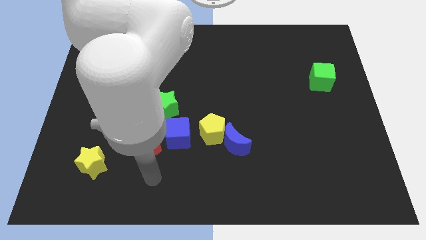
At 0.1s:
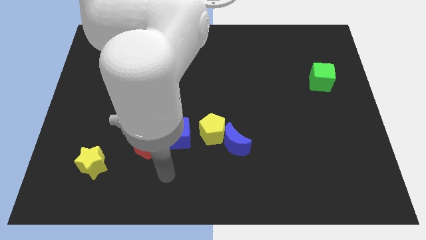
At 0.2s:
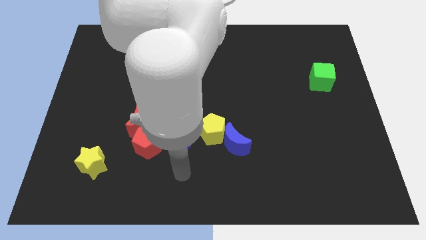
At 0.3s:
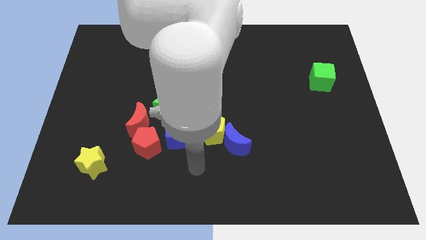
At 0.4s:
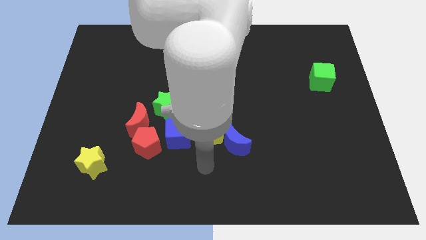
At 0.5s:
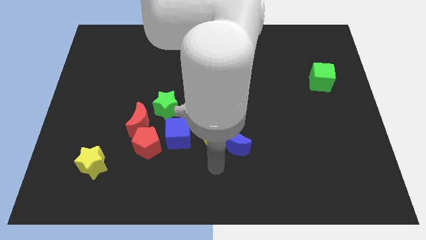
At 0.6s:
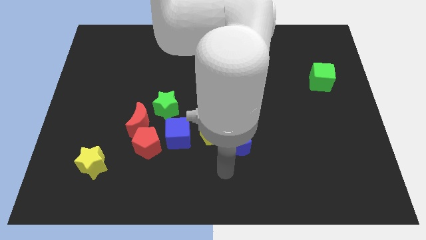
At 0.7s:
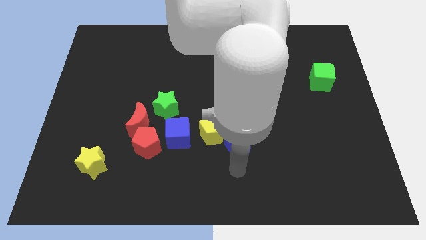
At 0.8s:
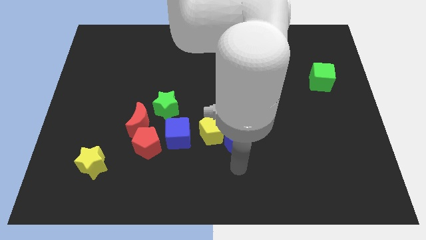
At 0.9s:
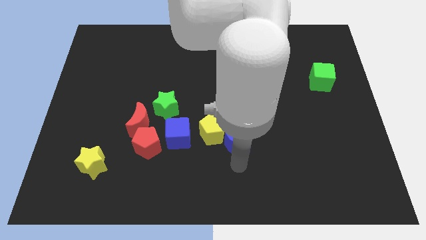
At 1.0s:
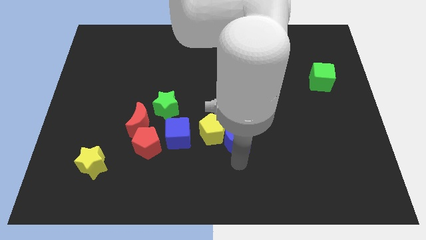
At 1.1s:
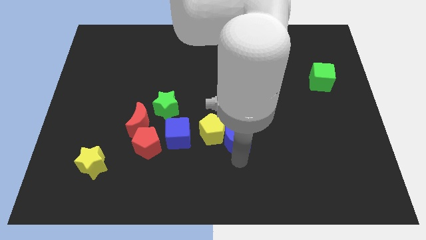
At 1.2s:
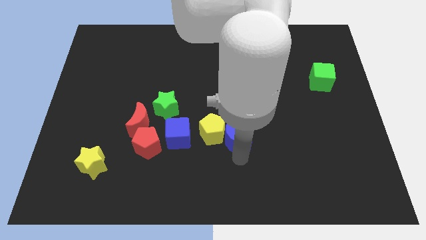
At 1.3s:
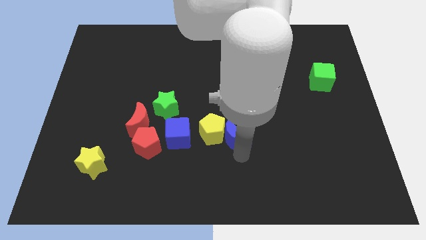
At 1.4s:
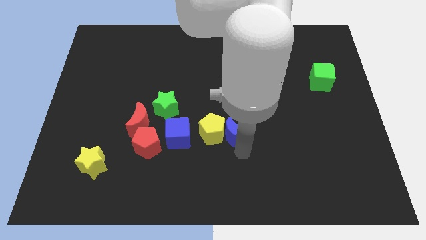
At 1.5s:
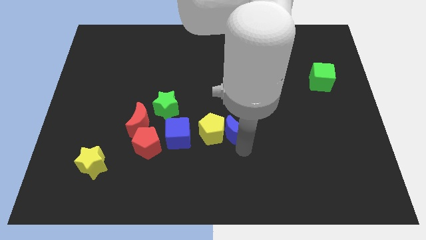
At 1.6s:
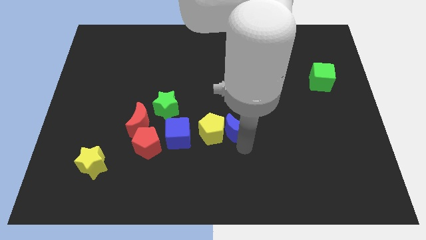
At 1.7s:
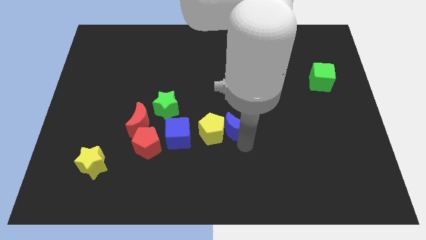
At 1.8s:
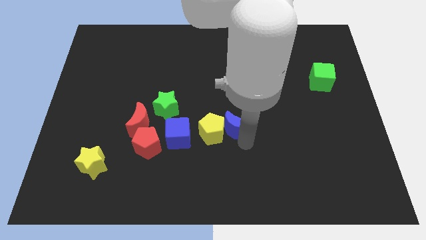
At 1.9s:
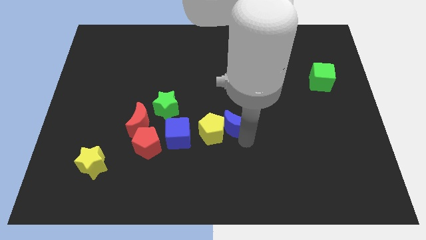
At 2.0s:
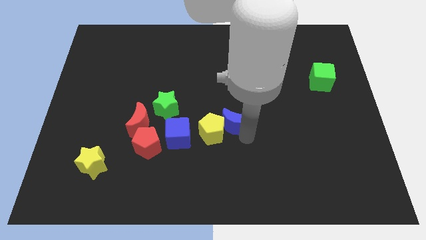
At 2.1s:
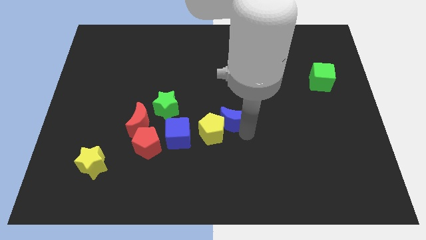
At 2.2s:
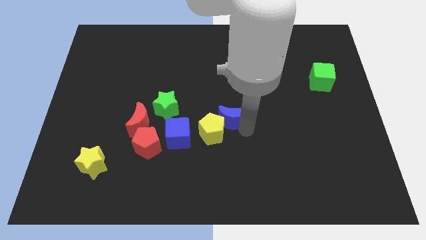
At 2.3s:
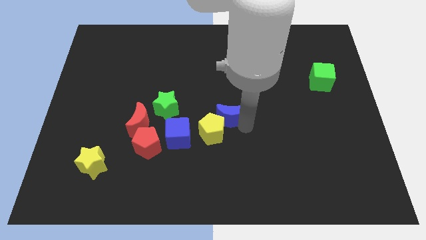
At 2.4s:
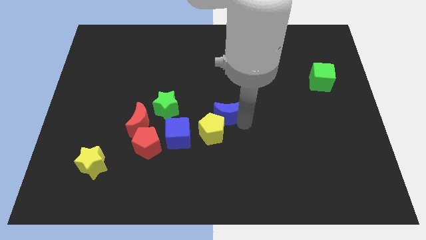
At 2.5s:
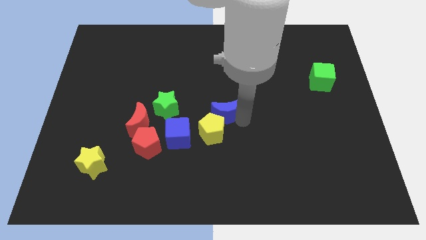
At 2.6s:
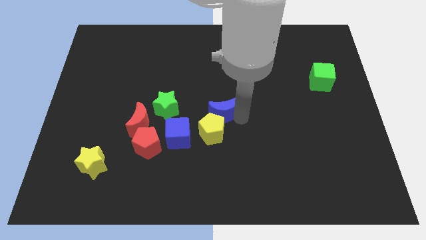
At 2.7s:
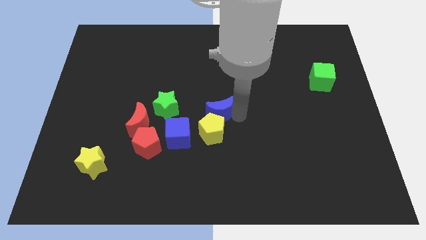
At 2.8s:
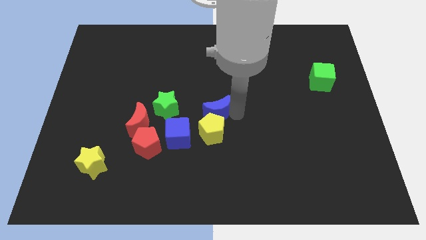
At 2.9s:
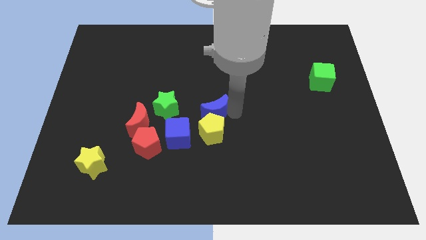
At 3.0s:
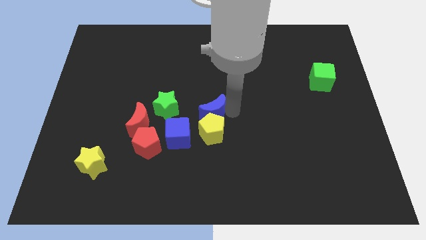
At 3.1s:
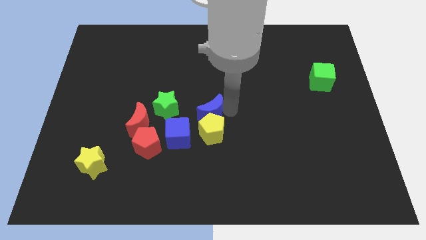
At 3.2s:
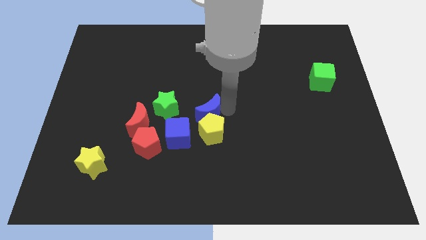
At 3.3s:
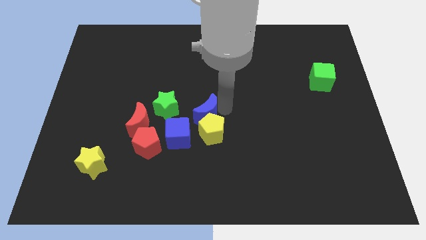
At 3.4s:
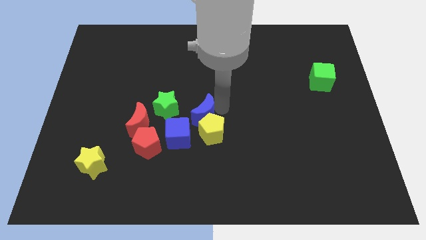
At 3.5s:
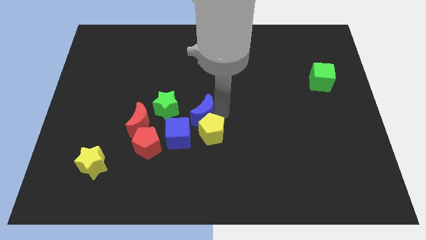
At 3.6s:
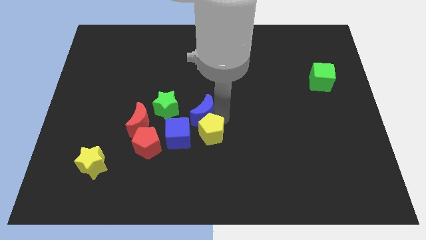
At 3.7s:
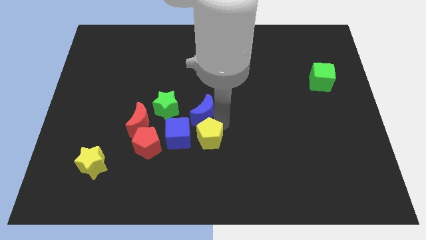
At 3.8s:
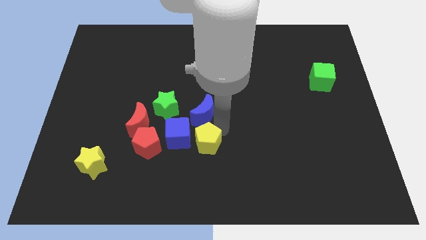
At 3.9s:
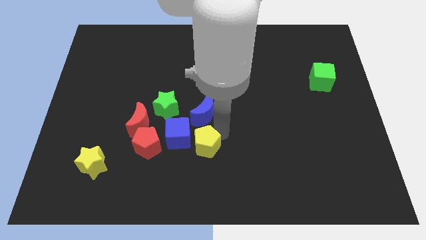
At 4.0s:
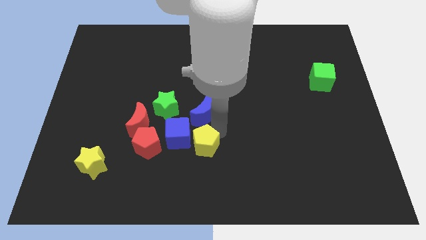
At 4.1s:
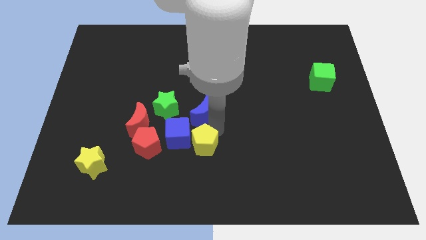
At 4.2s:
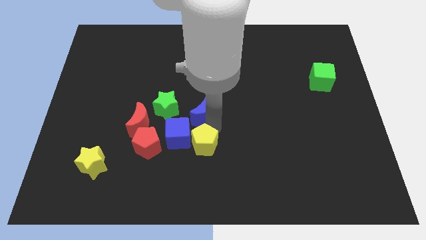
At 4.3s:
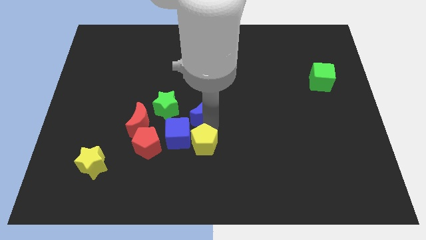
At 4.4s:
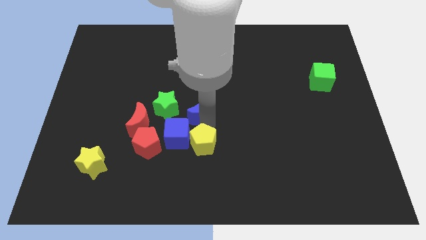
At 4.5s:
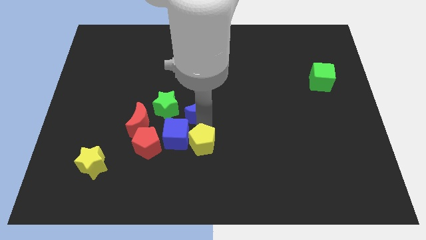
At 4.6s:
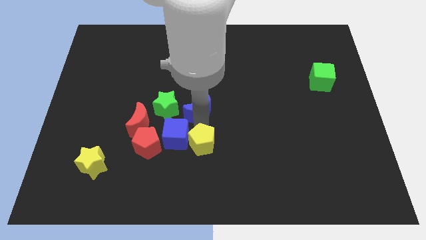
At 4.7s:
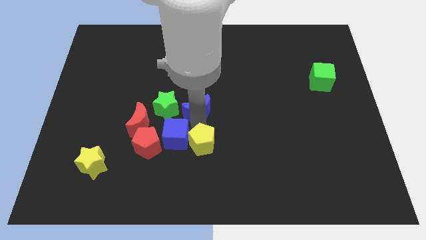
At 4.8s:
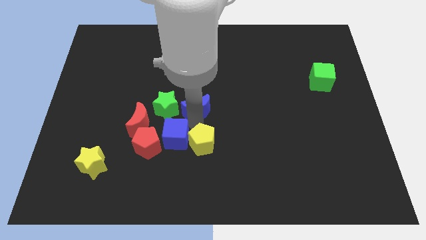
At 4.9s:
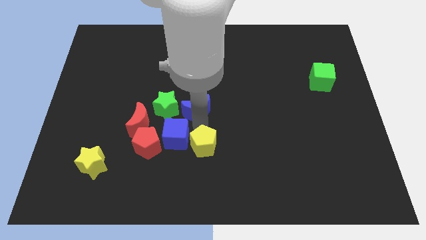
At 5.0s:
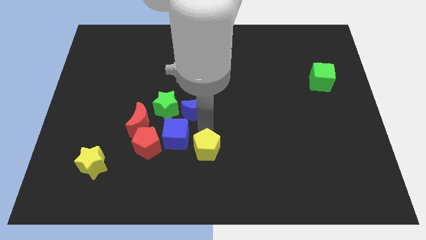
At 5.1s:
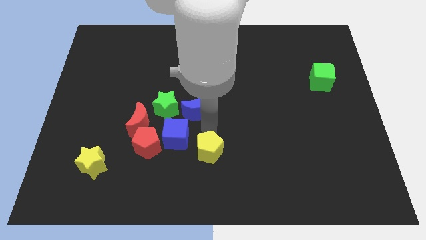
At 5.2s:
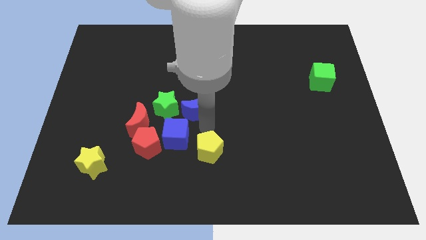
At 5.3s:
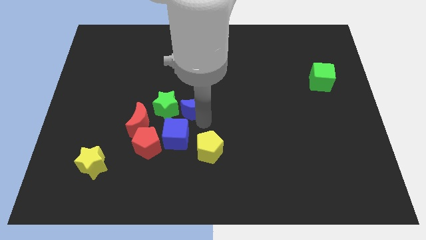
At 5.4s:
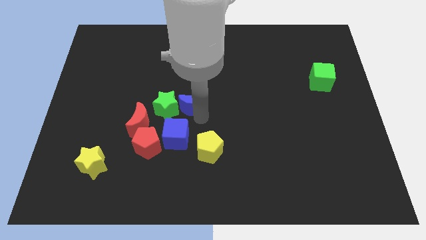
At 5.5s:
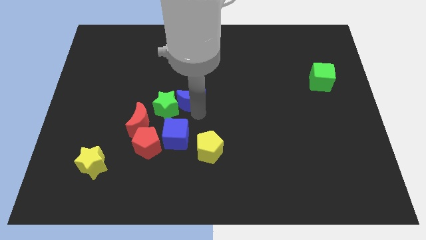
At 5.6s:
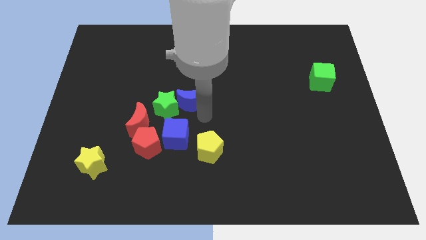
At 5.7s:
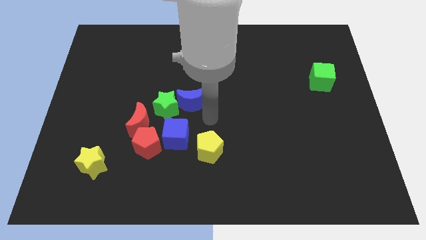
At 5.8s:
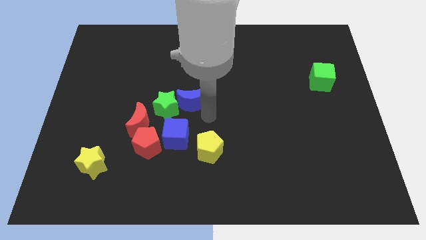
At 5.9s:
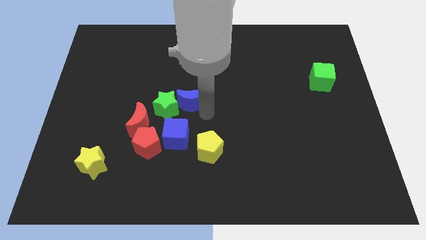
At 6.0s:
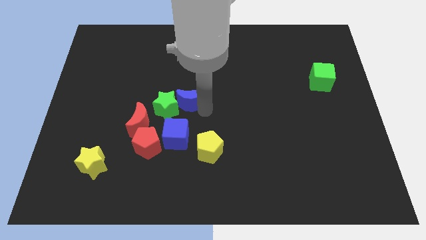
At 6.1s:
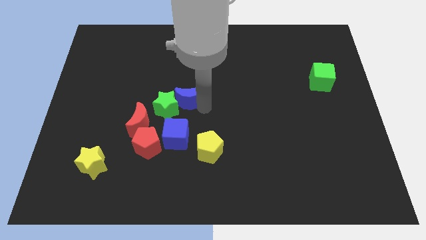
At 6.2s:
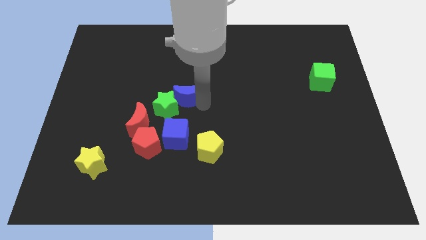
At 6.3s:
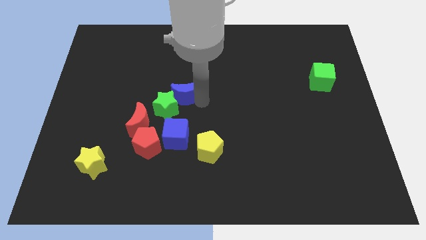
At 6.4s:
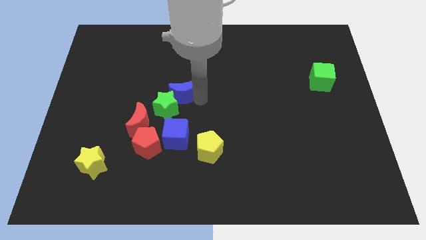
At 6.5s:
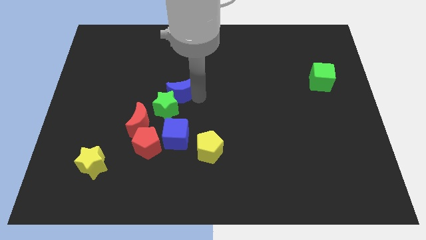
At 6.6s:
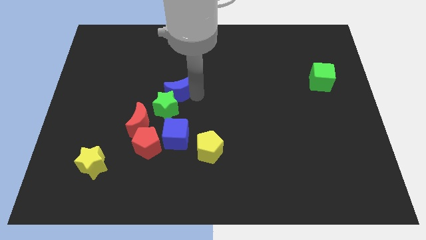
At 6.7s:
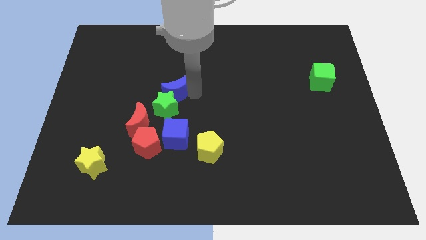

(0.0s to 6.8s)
slide the blue moon up and to the left

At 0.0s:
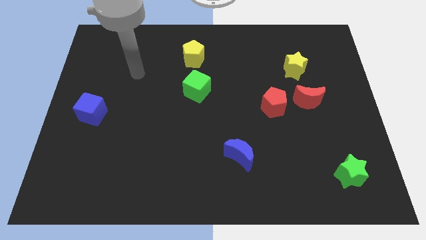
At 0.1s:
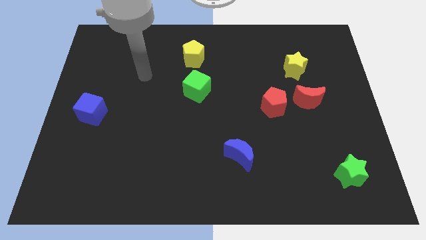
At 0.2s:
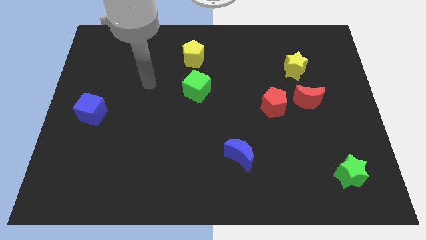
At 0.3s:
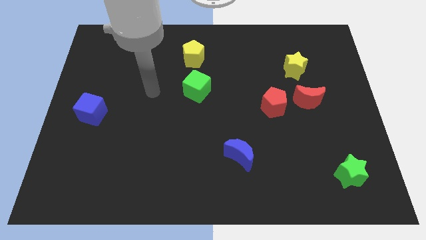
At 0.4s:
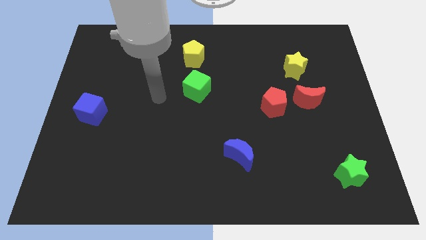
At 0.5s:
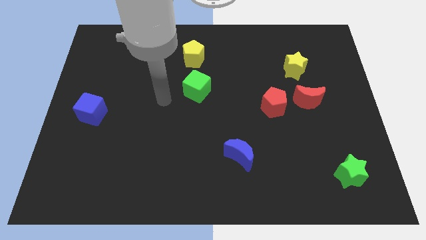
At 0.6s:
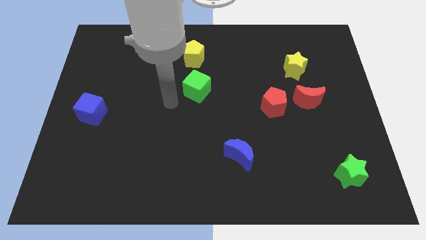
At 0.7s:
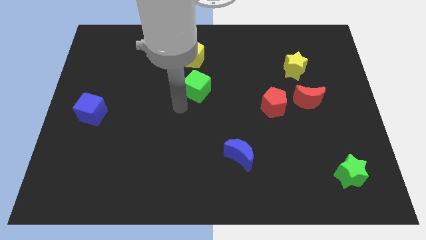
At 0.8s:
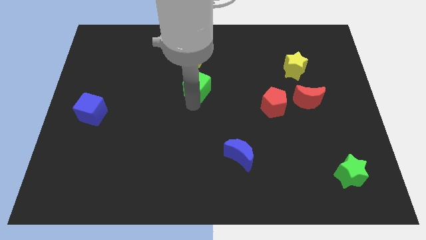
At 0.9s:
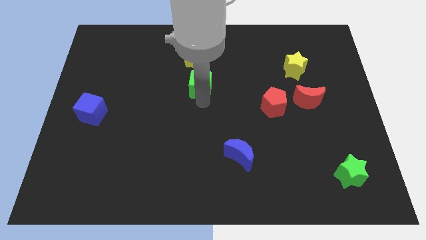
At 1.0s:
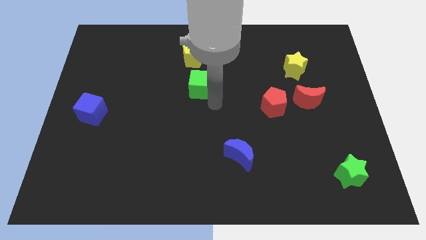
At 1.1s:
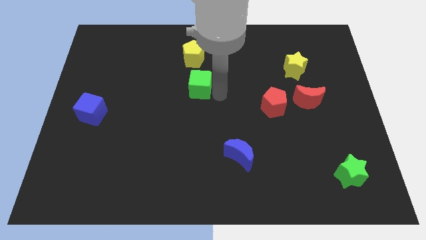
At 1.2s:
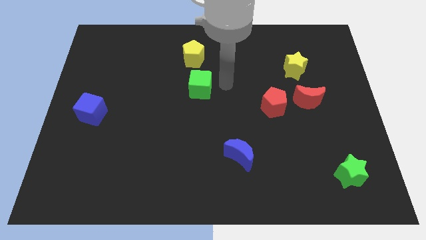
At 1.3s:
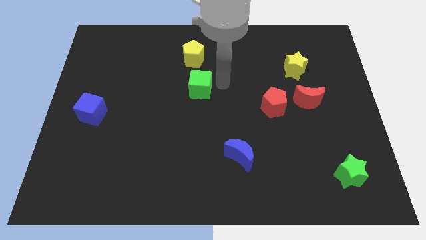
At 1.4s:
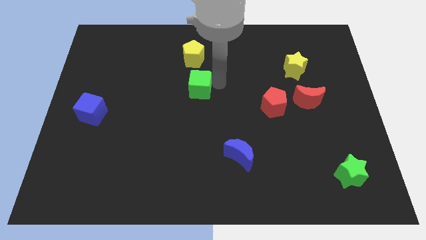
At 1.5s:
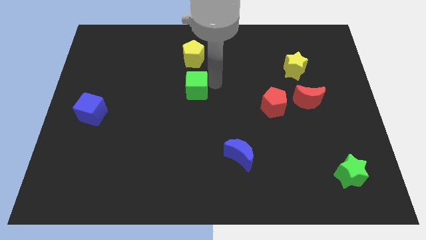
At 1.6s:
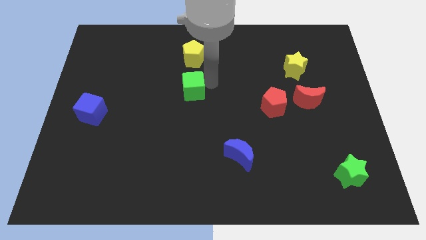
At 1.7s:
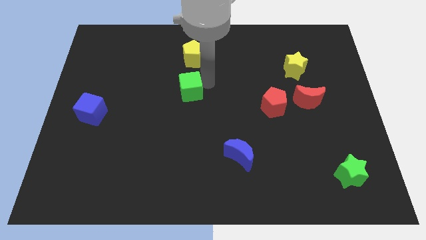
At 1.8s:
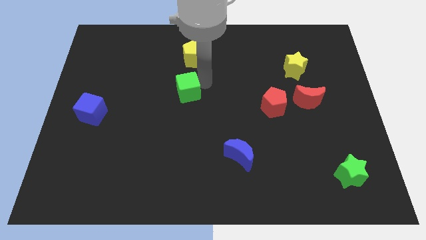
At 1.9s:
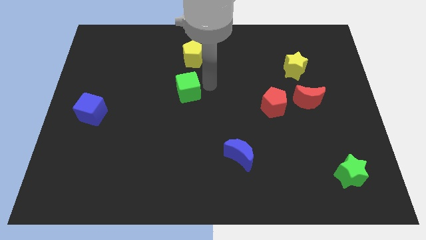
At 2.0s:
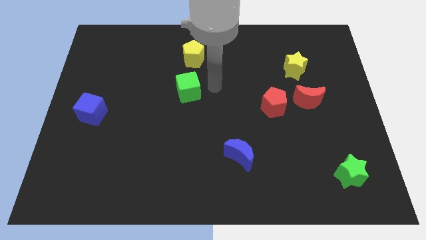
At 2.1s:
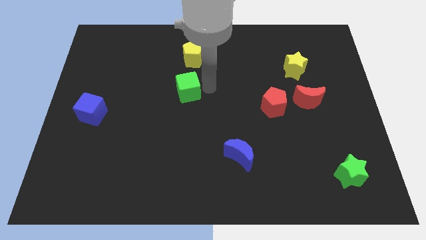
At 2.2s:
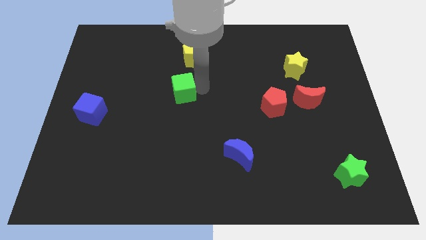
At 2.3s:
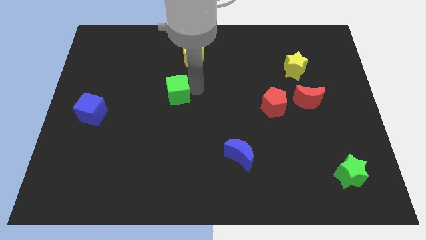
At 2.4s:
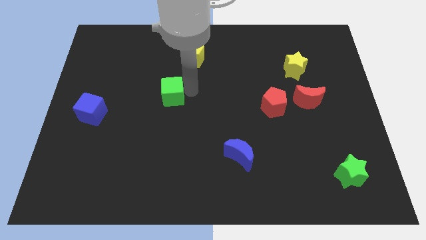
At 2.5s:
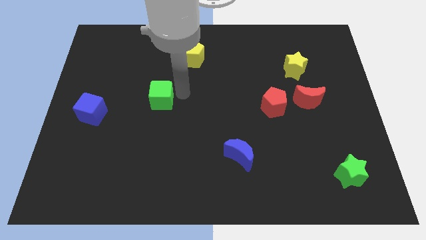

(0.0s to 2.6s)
slide the green cube a bit left
